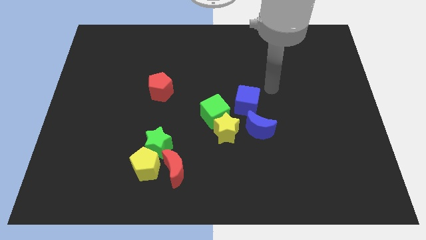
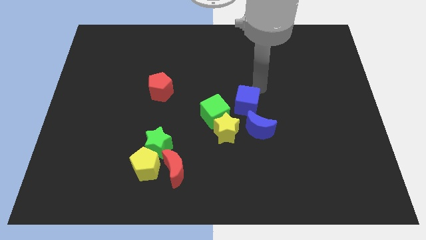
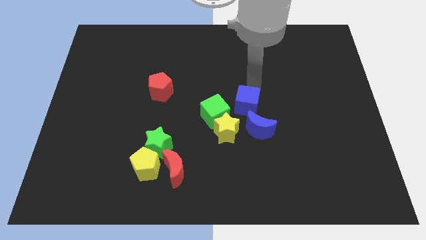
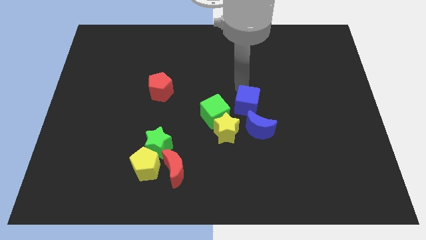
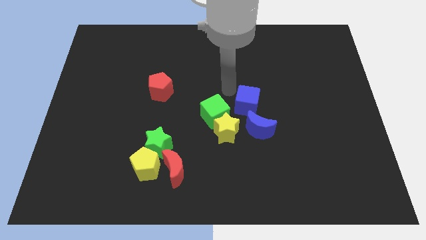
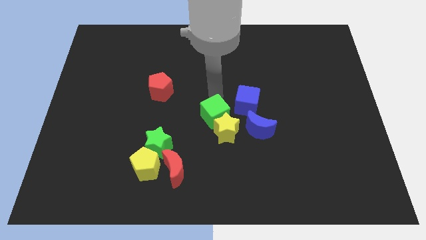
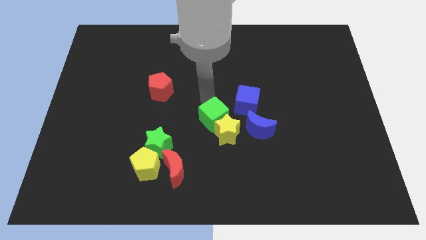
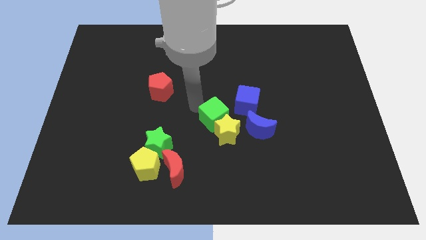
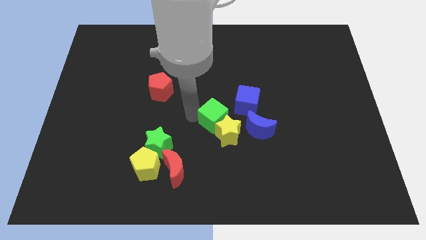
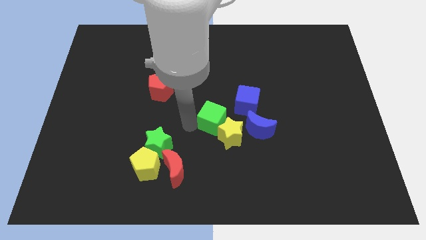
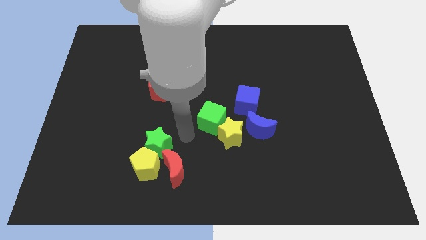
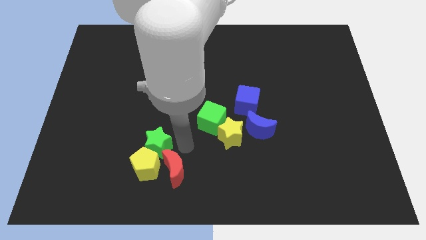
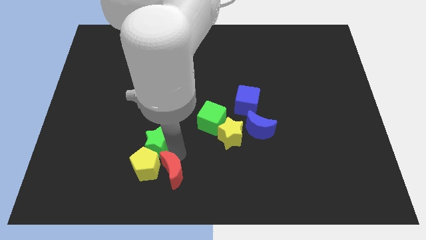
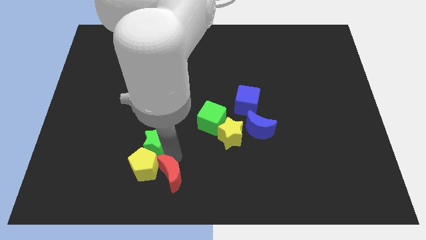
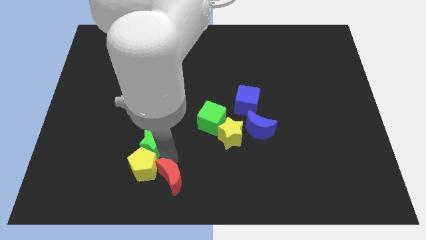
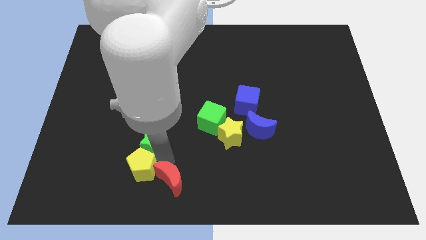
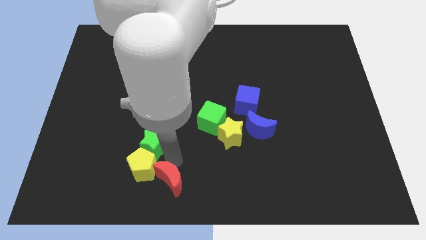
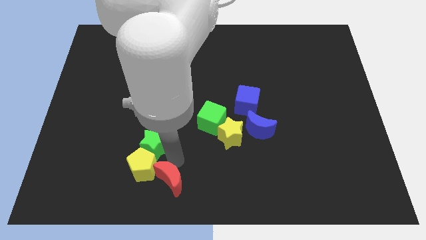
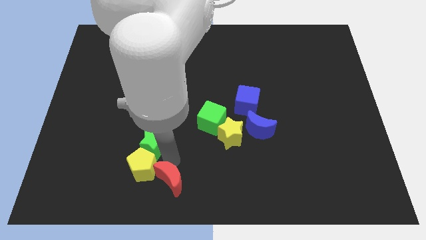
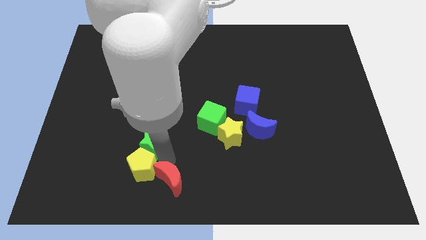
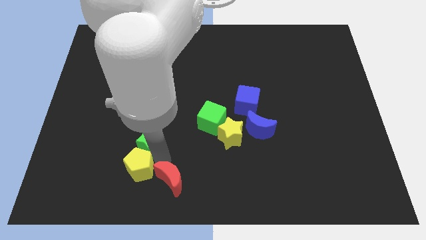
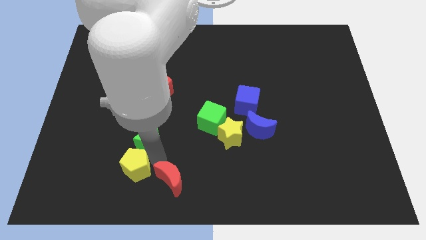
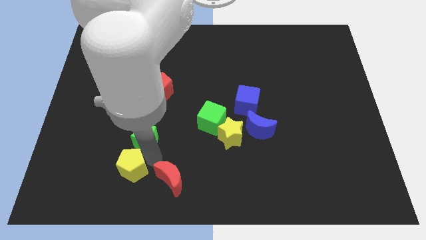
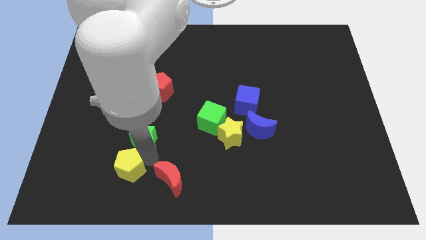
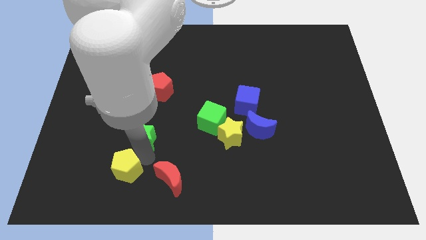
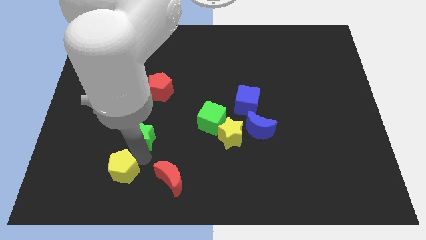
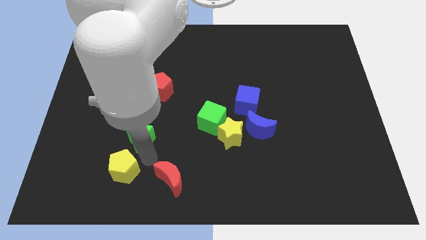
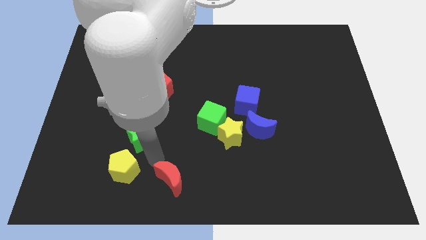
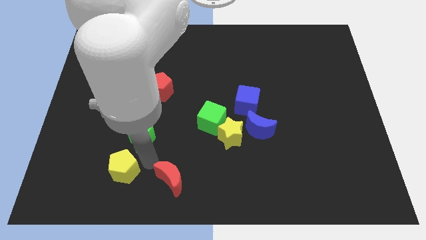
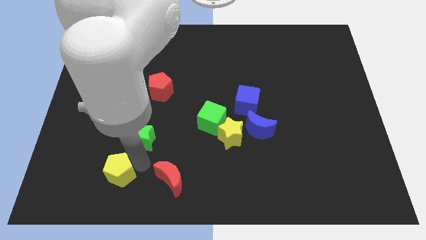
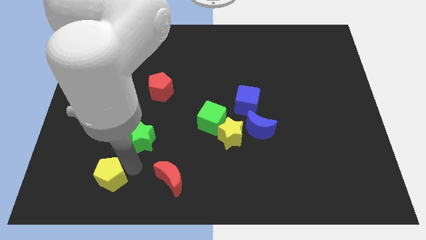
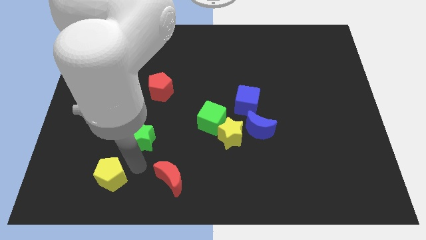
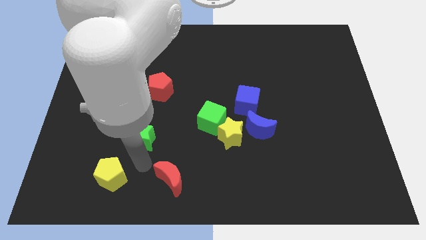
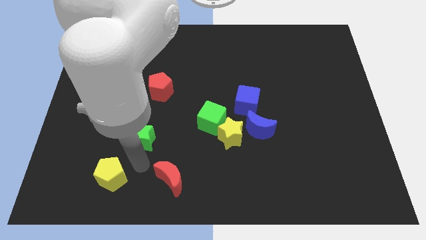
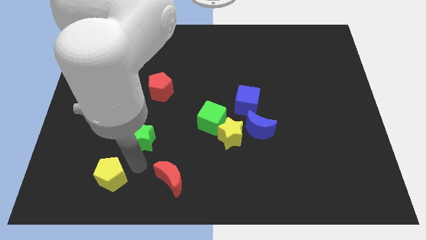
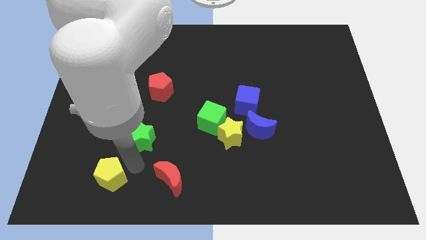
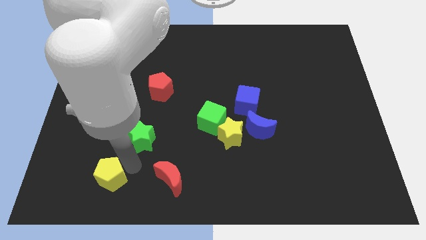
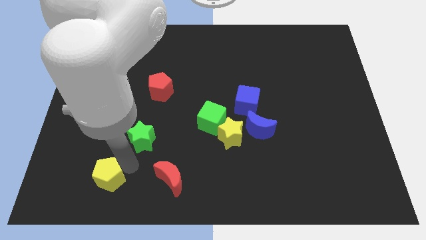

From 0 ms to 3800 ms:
separate the yellow pentagon from the green star and red moon

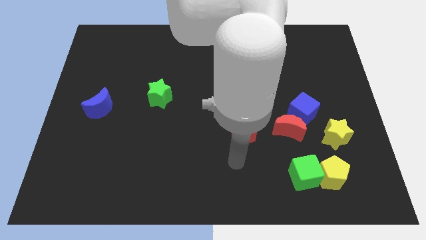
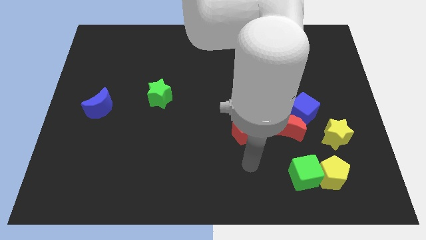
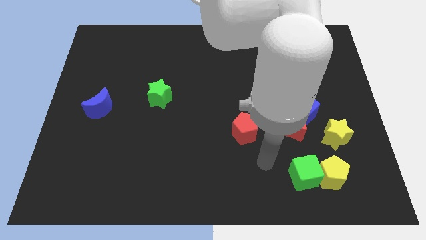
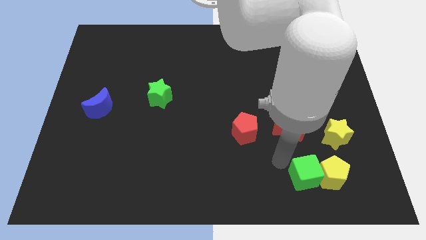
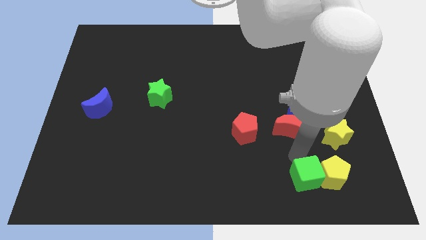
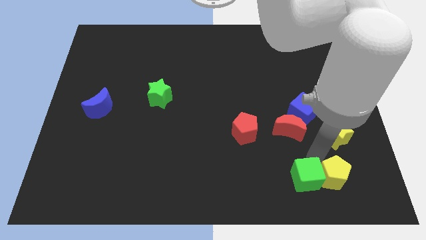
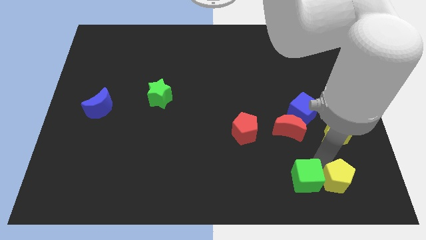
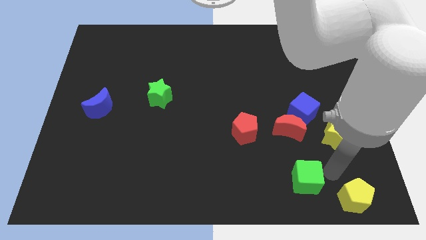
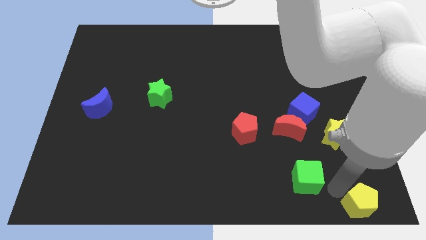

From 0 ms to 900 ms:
pull the green cube apart from the yellow pentagon

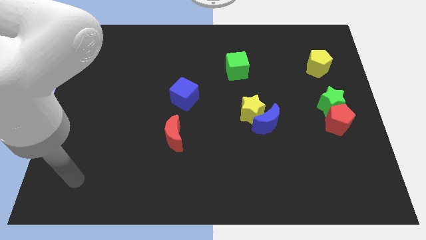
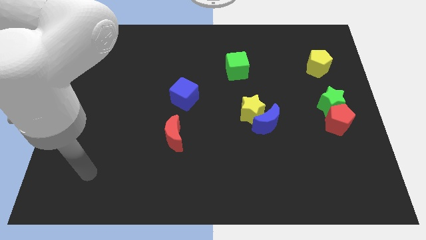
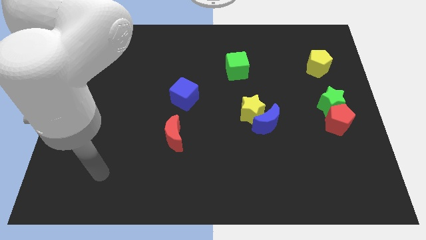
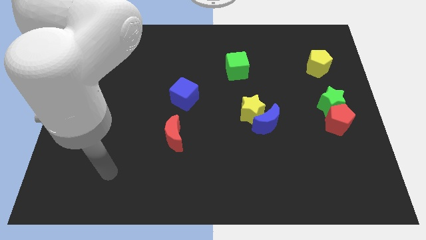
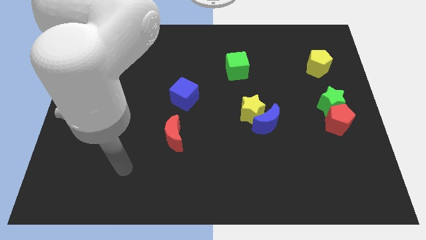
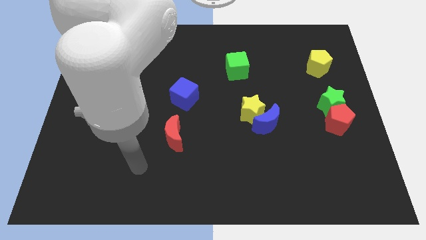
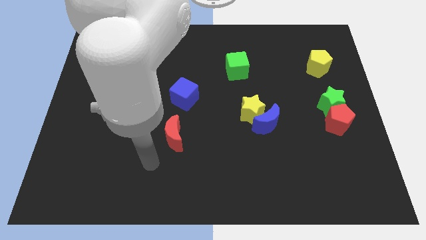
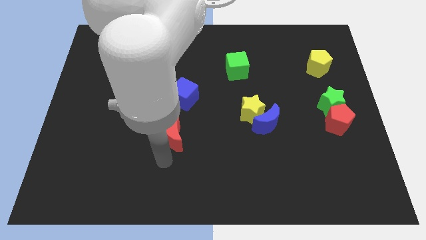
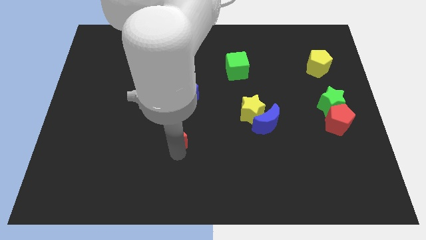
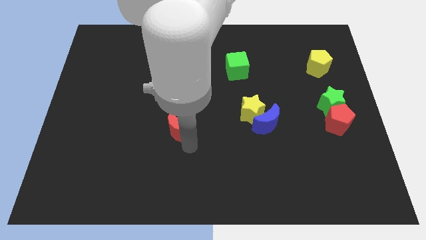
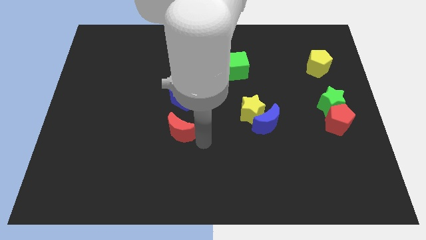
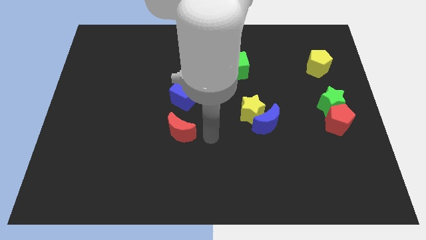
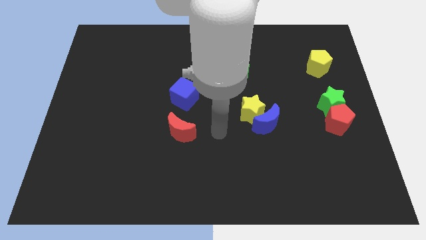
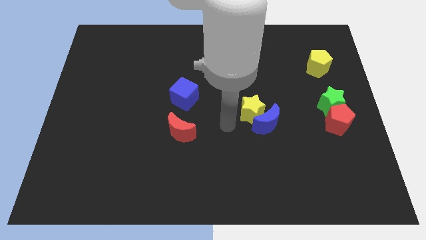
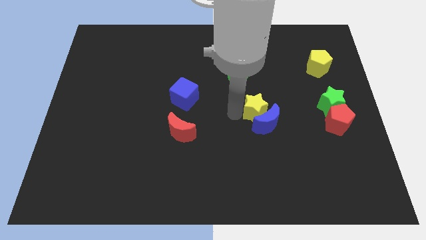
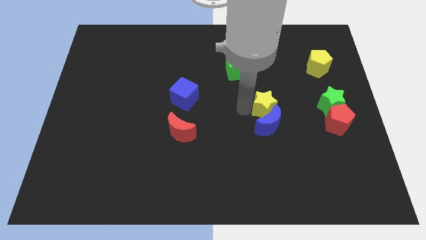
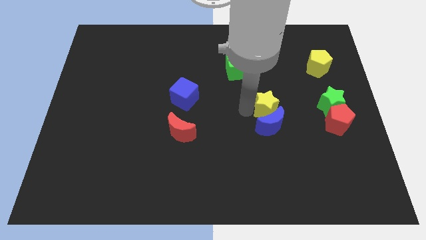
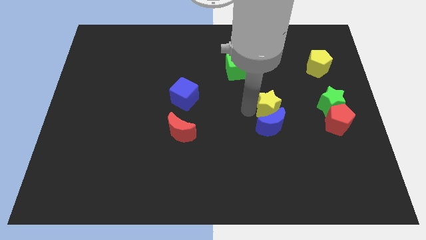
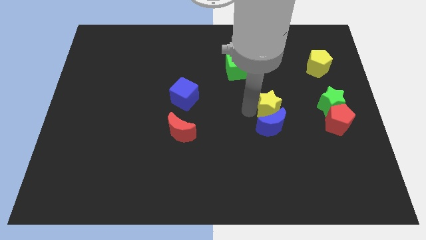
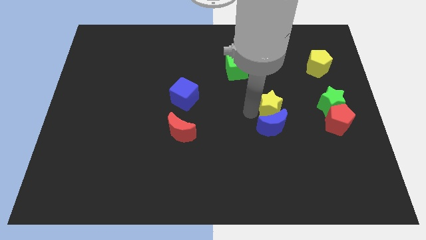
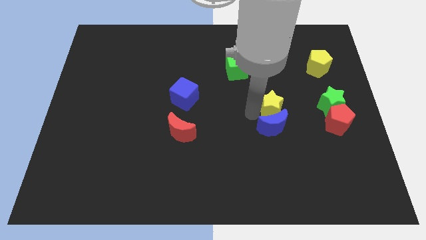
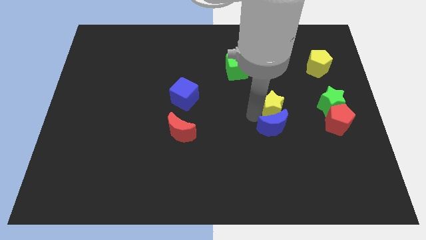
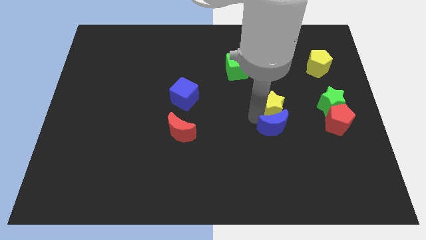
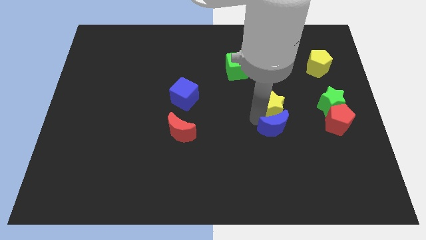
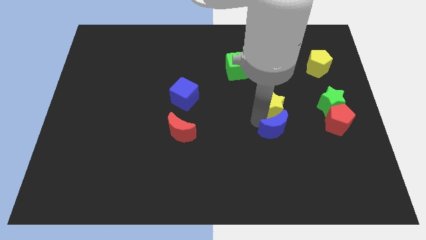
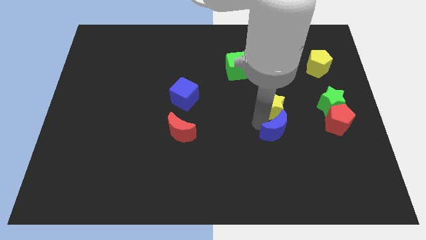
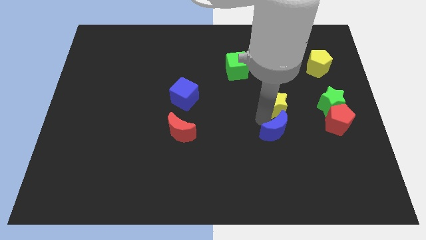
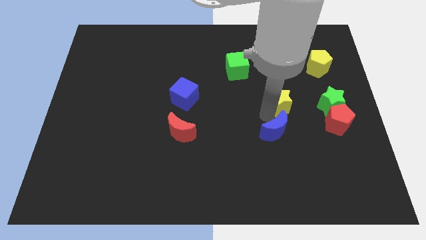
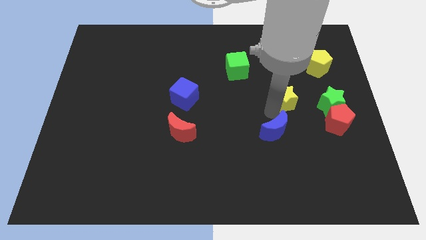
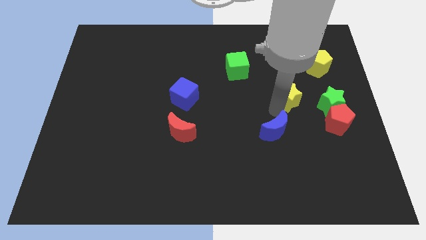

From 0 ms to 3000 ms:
separate the blue moon from the yellow star

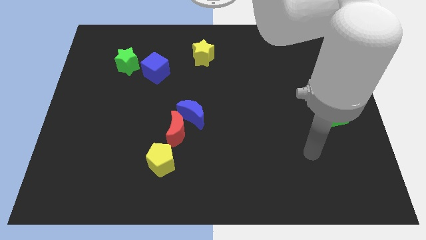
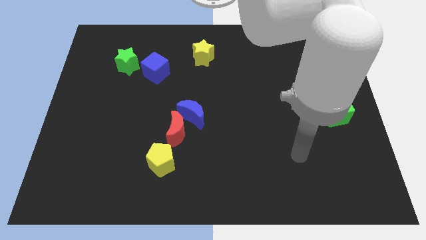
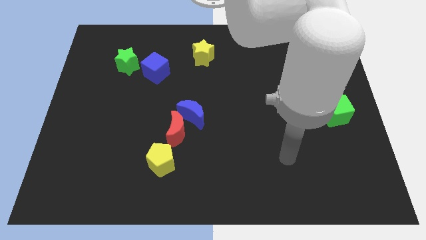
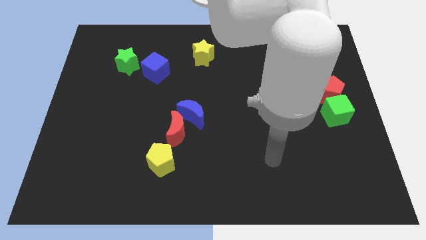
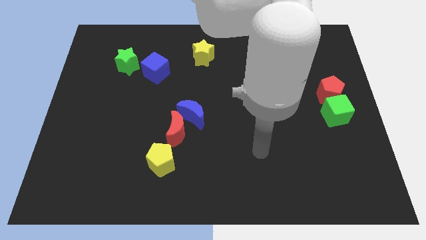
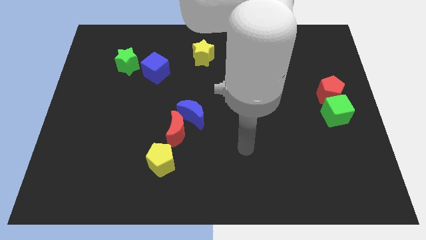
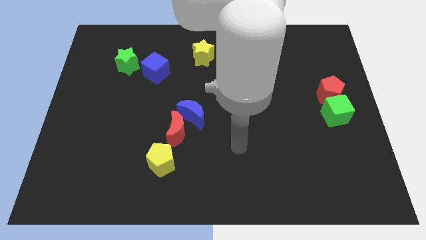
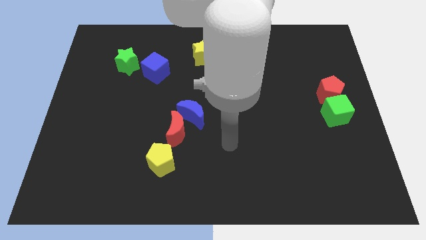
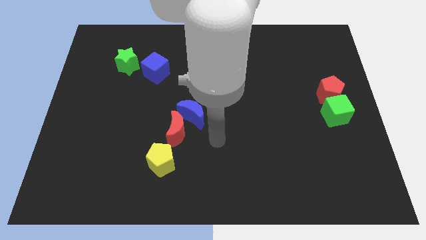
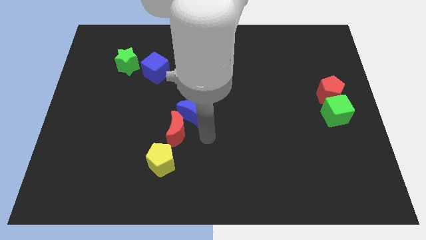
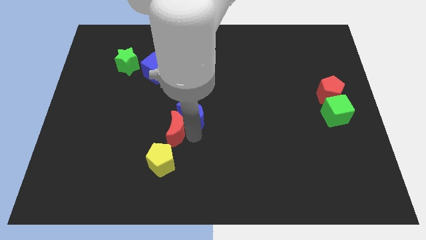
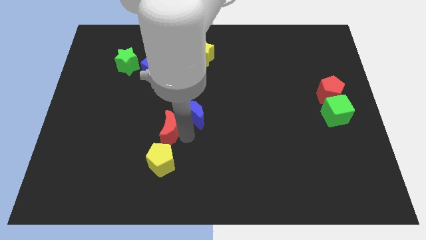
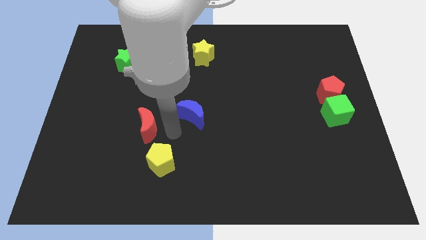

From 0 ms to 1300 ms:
move the blue moon away from the red moon

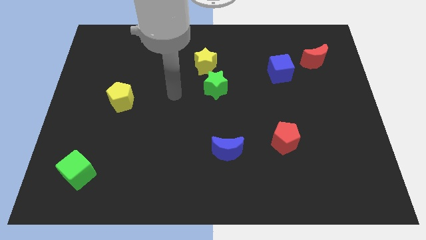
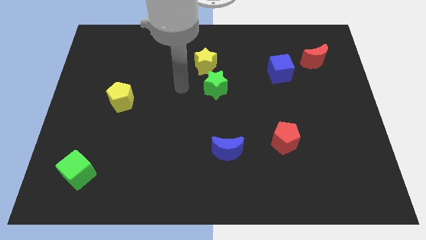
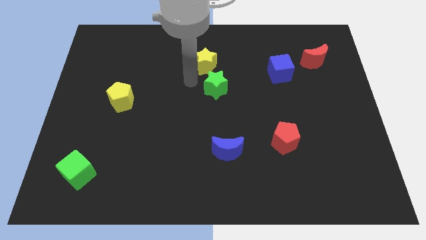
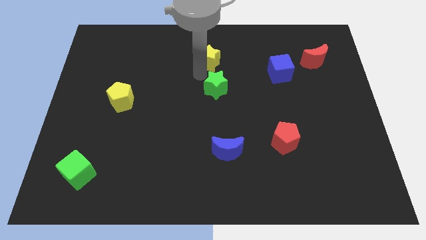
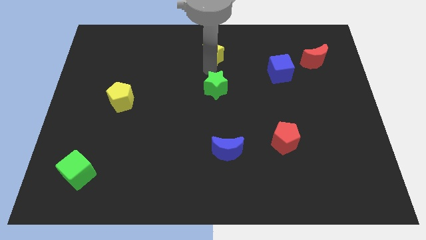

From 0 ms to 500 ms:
separate the green star from the yellow star
